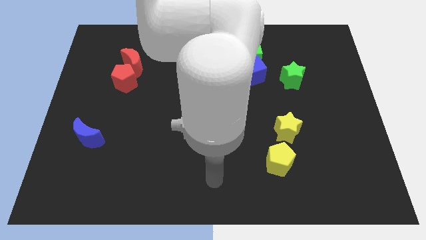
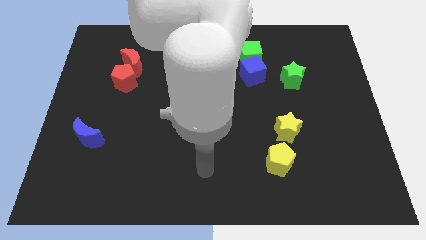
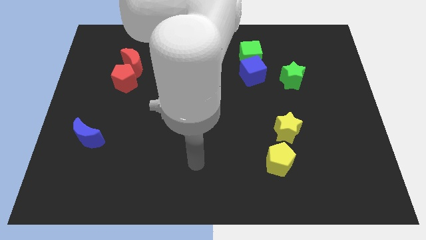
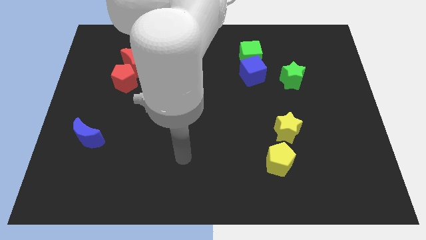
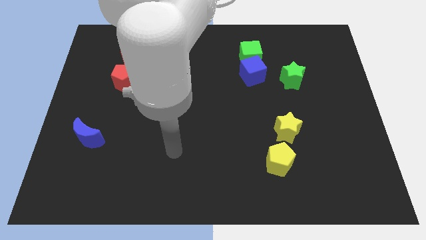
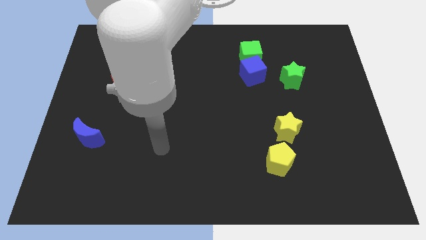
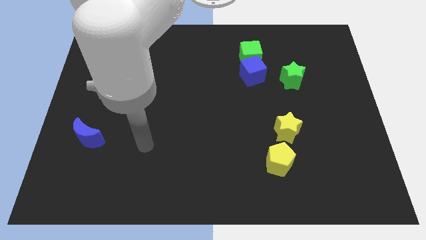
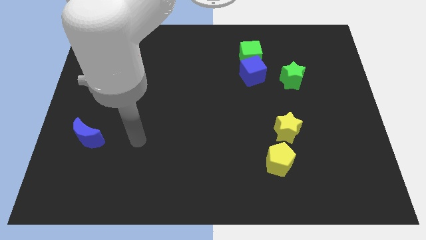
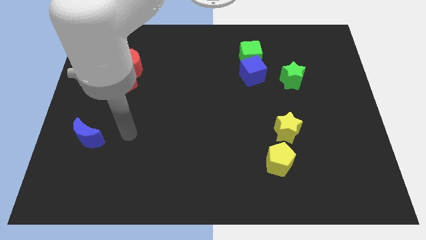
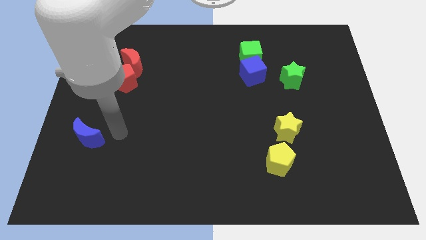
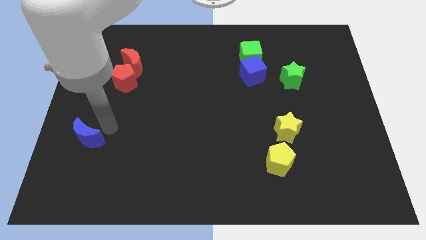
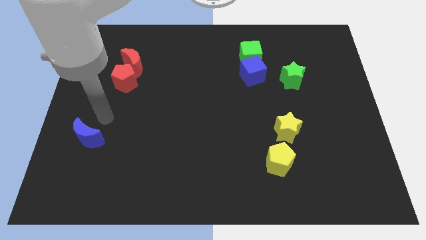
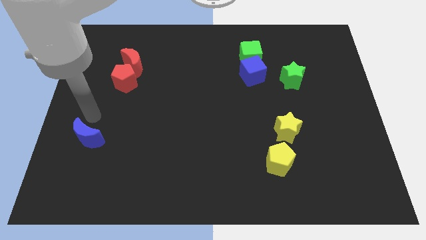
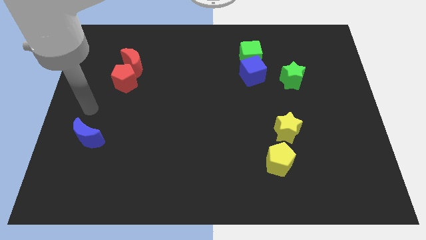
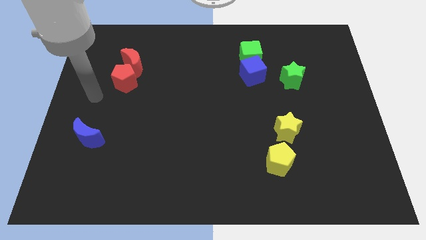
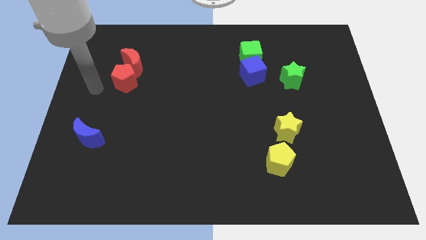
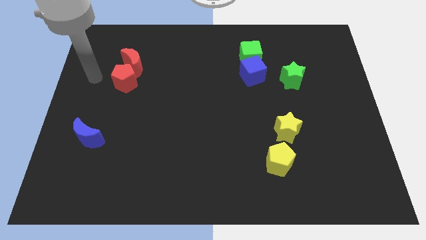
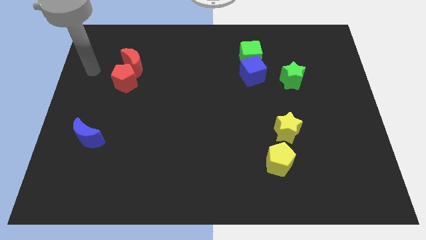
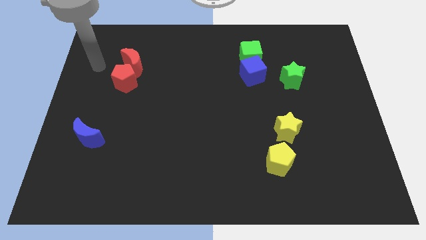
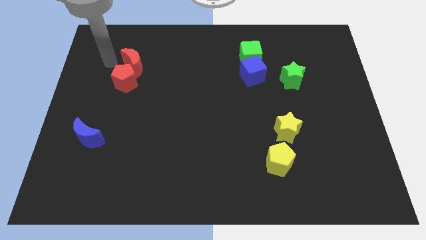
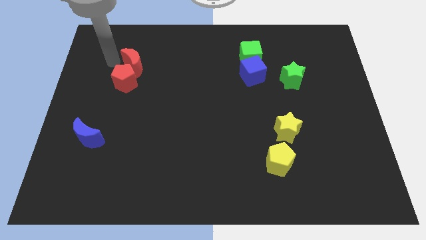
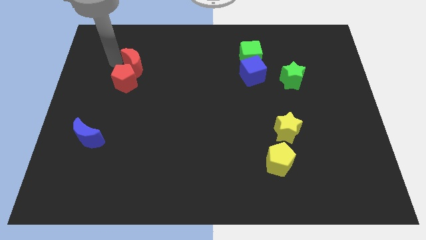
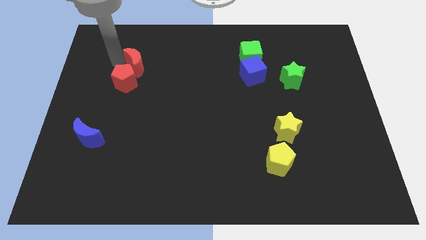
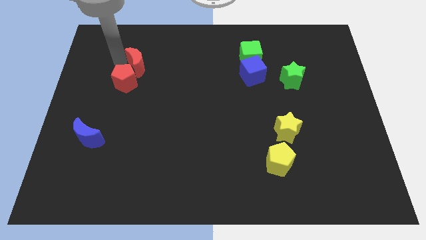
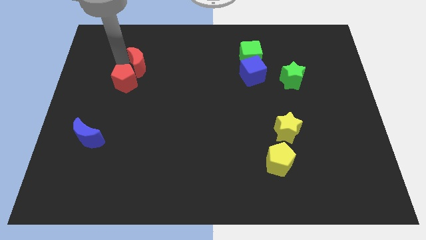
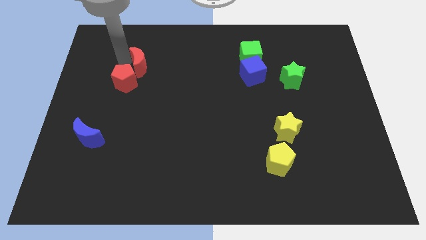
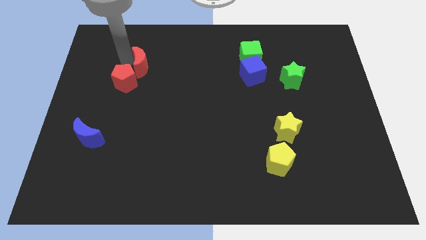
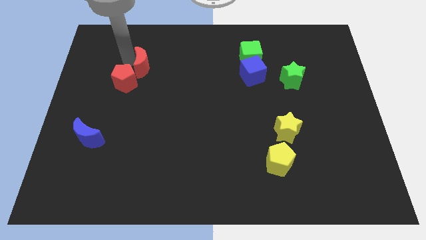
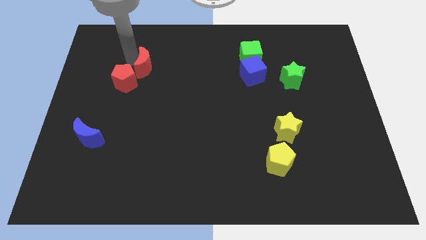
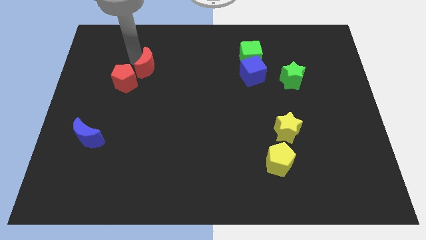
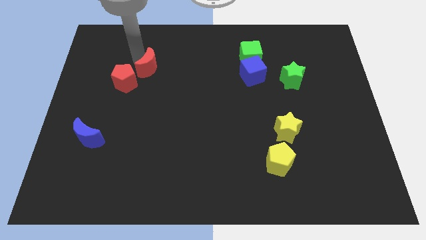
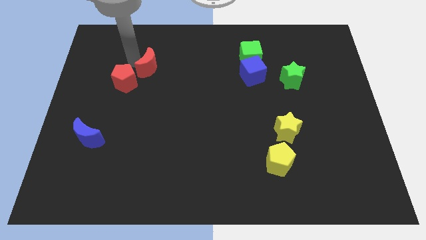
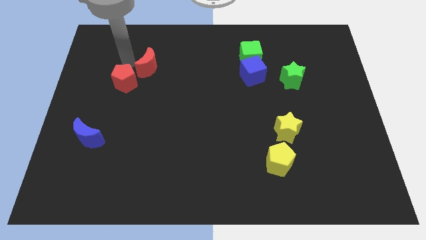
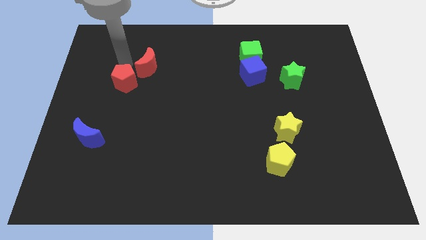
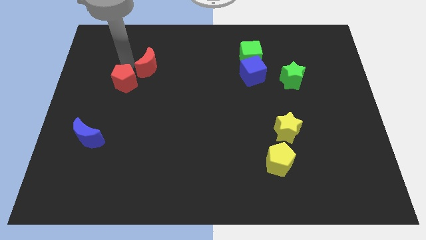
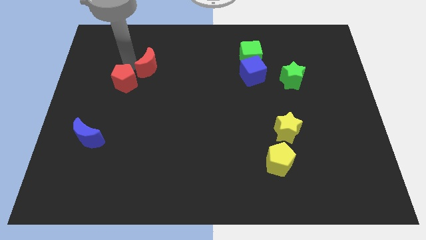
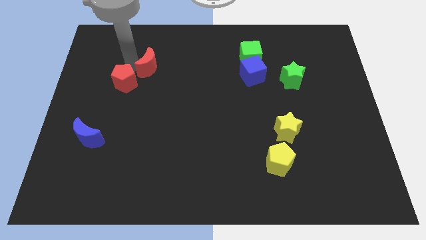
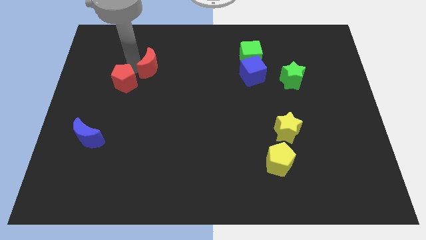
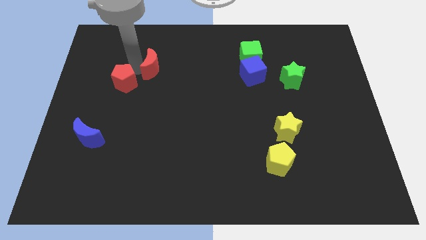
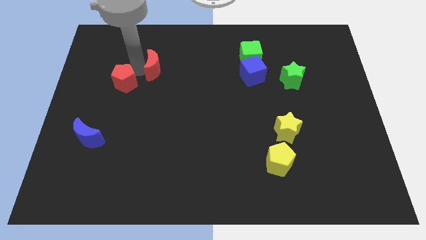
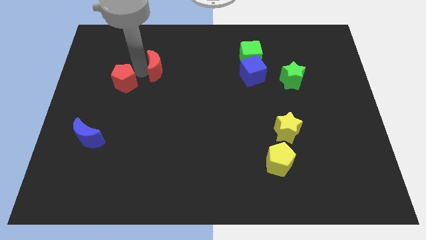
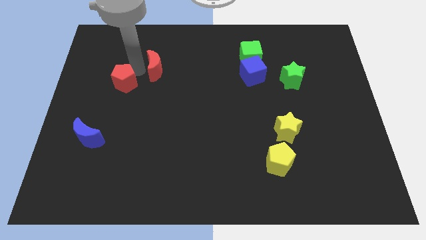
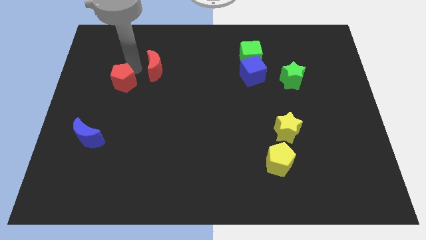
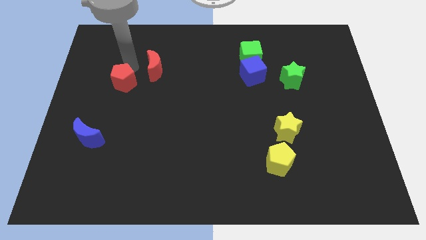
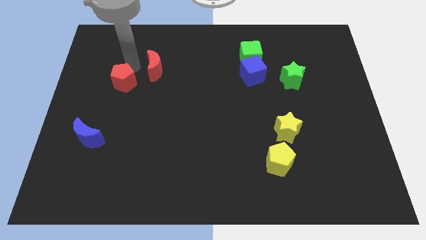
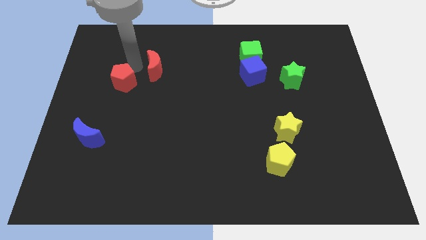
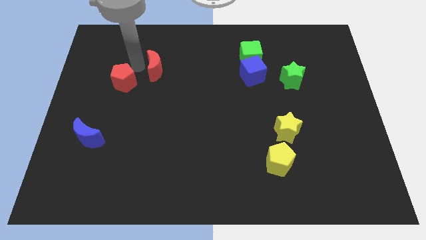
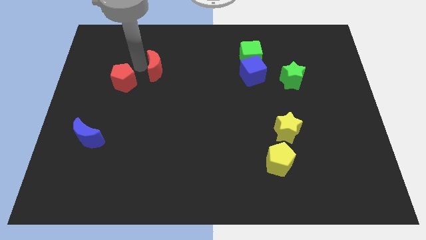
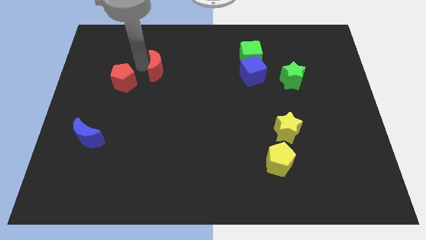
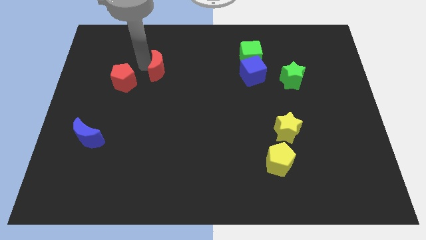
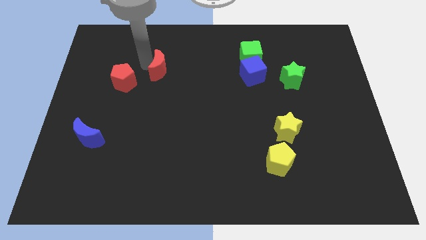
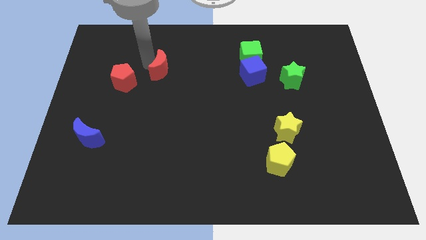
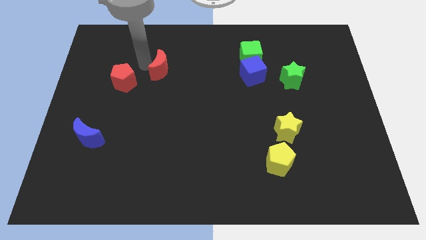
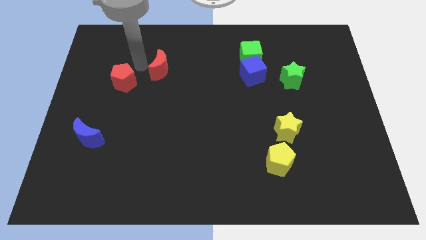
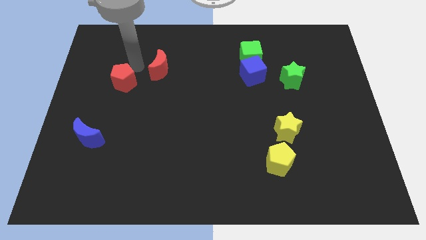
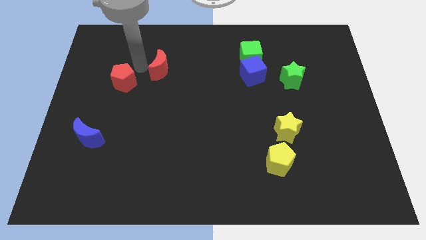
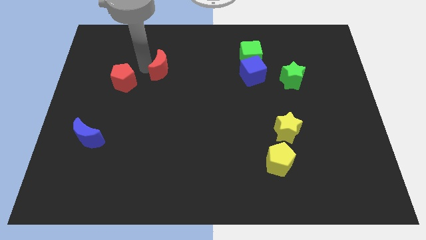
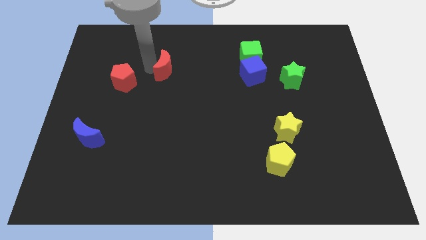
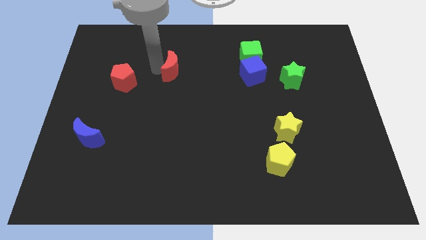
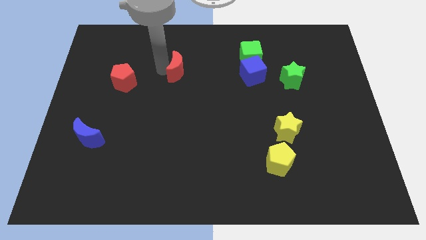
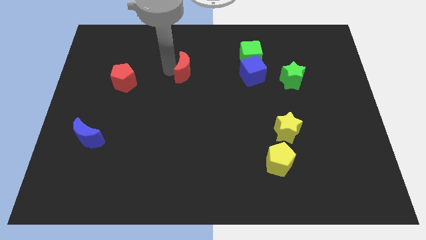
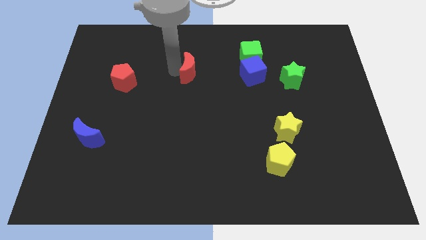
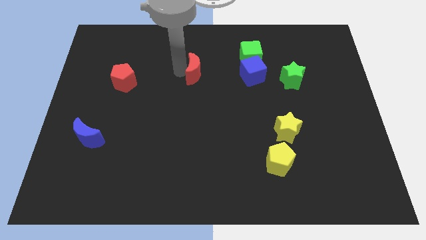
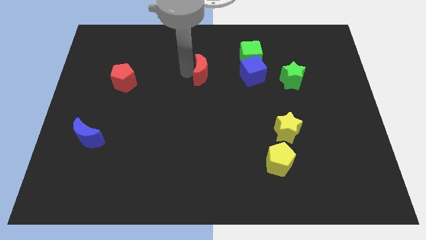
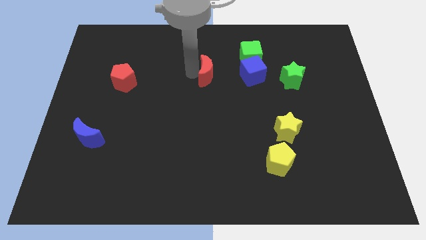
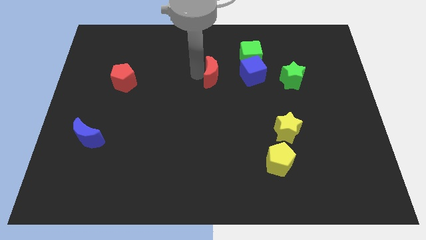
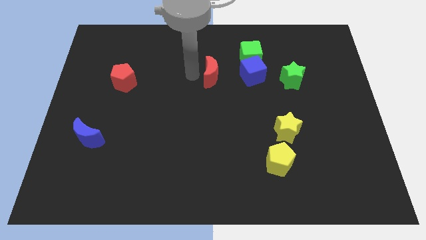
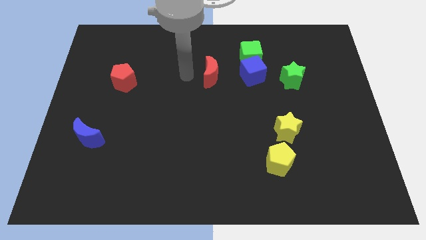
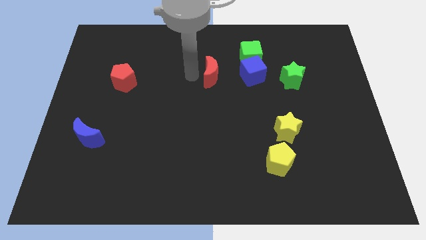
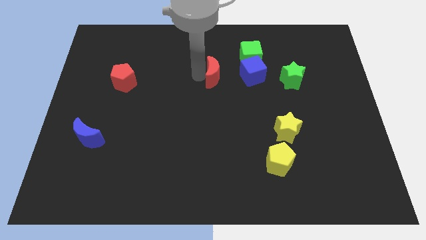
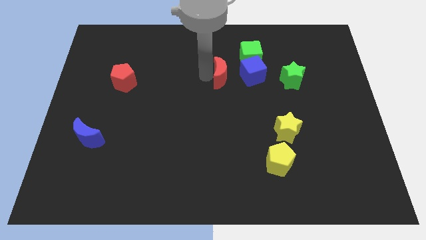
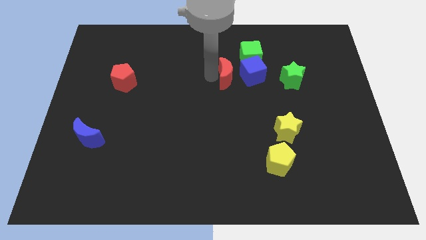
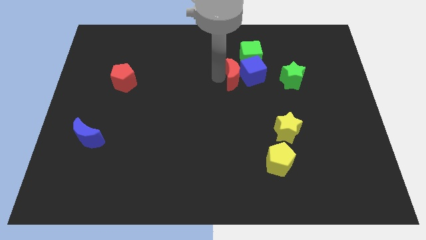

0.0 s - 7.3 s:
push the red moon to the blue cube
